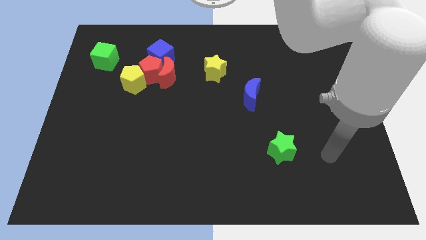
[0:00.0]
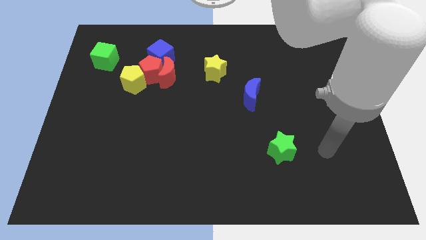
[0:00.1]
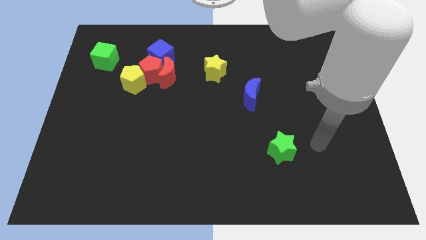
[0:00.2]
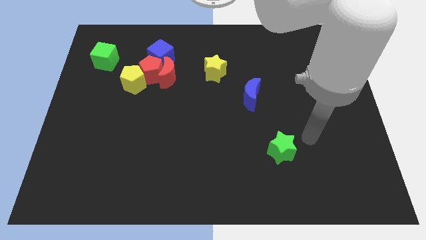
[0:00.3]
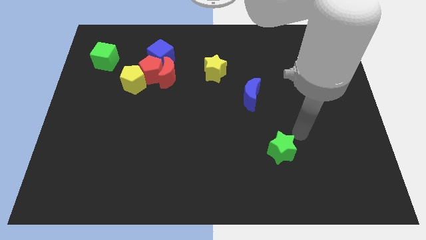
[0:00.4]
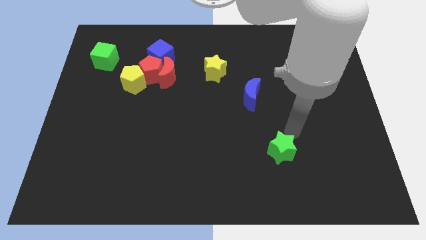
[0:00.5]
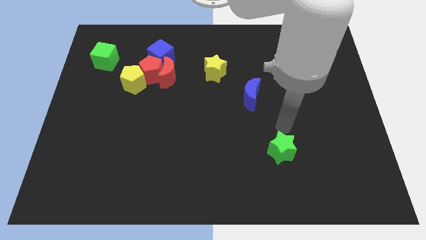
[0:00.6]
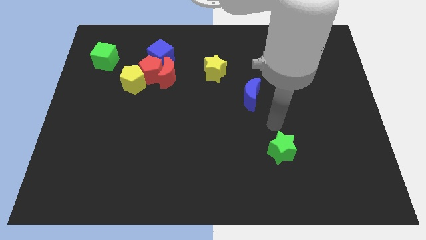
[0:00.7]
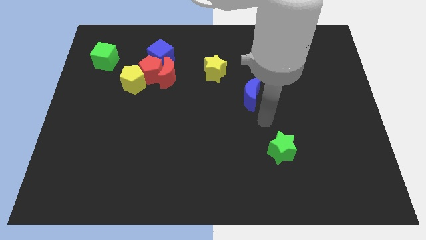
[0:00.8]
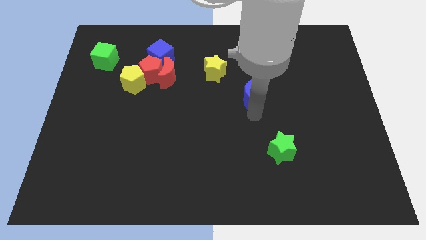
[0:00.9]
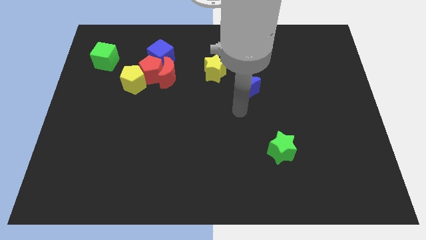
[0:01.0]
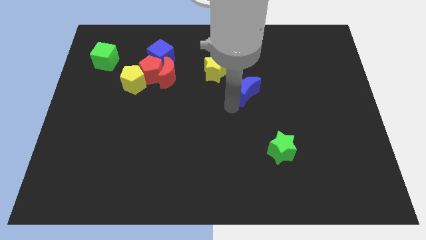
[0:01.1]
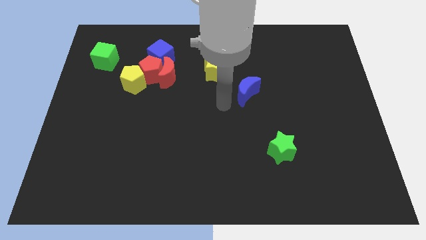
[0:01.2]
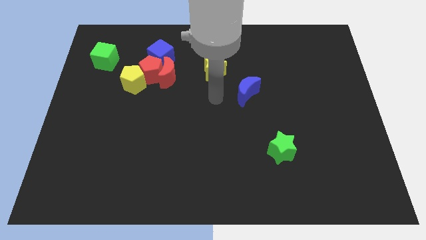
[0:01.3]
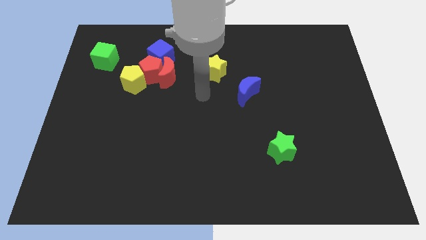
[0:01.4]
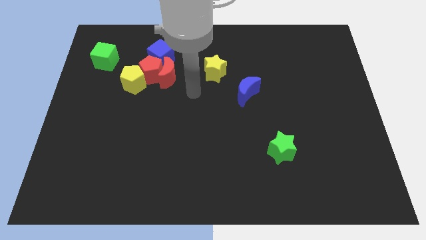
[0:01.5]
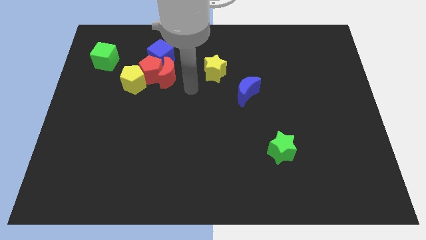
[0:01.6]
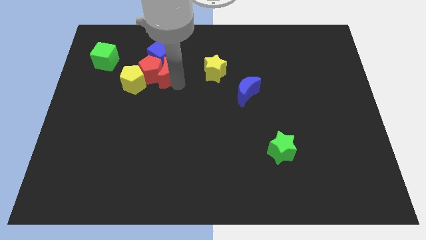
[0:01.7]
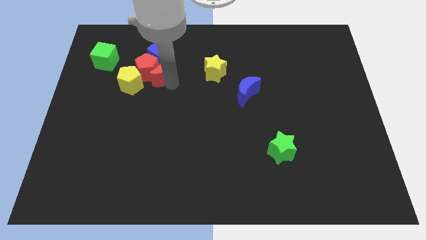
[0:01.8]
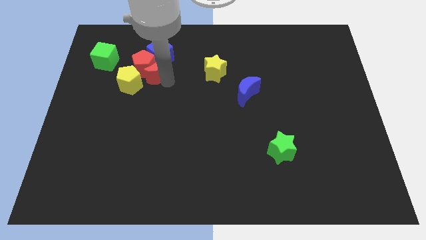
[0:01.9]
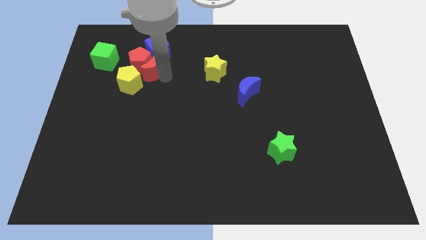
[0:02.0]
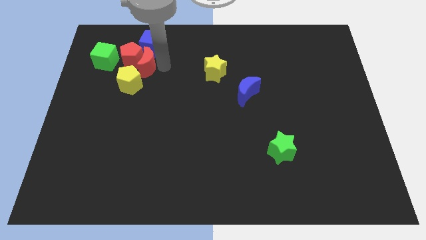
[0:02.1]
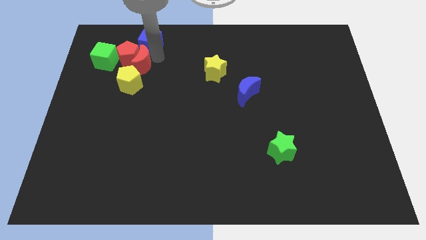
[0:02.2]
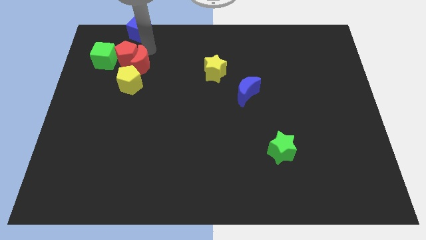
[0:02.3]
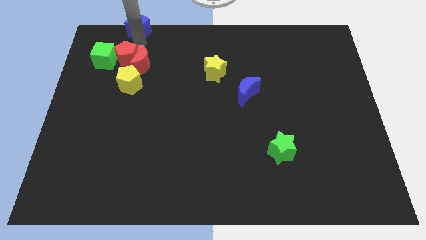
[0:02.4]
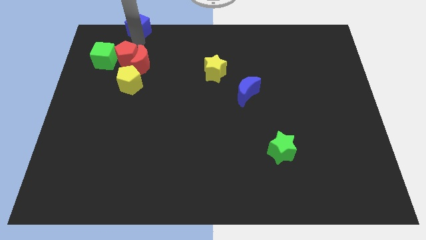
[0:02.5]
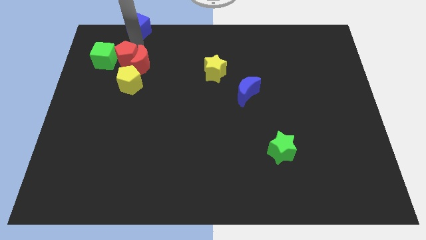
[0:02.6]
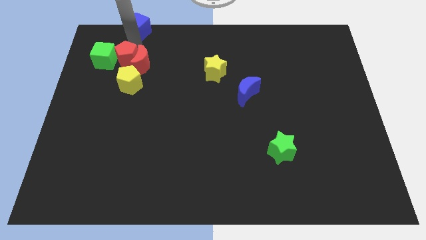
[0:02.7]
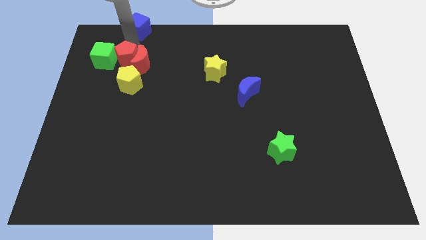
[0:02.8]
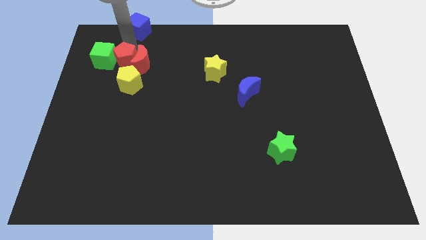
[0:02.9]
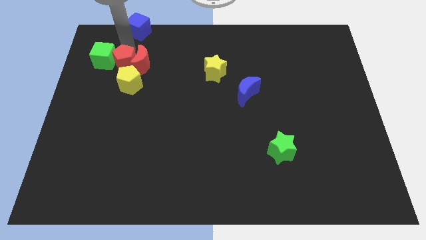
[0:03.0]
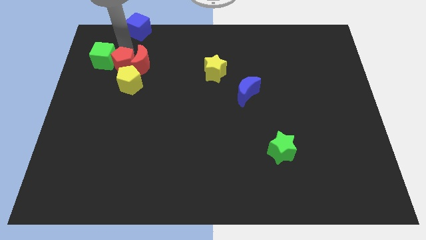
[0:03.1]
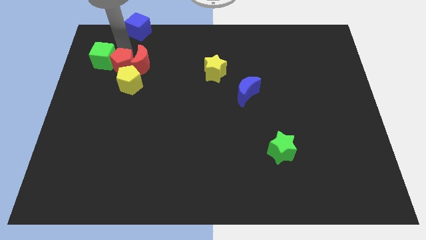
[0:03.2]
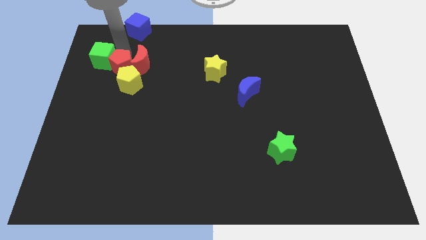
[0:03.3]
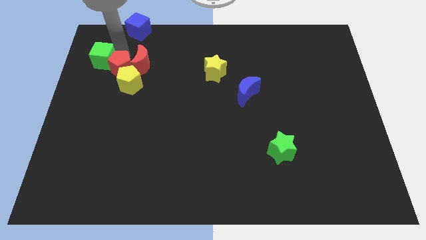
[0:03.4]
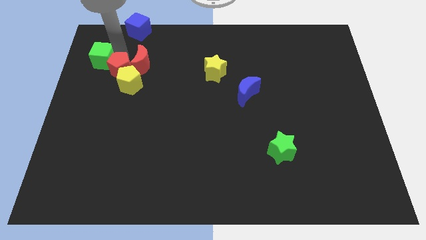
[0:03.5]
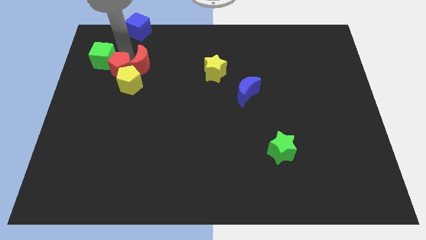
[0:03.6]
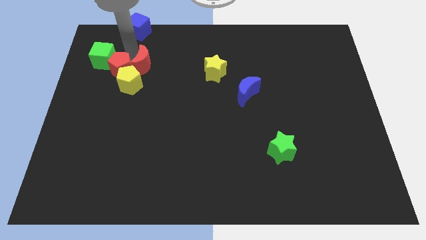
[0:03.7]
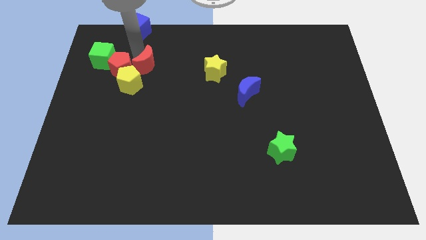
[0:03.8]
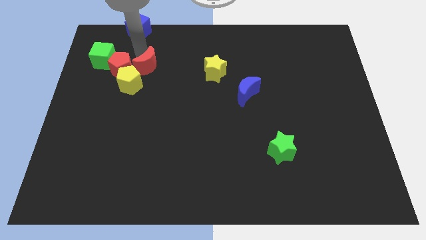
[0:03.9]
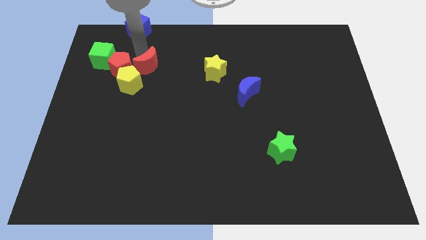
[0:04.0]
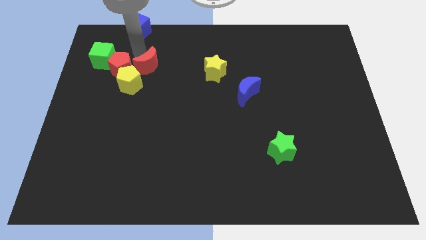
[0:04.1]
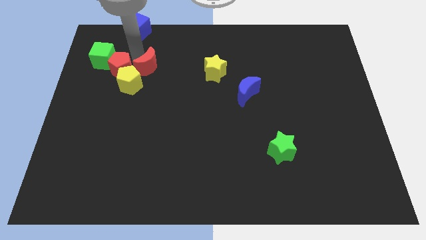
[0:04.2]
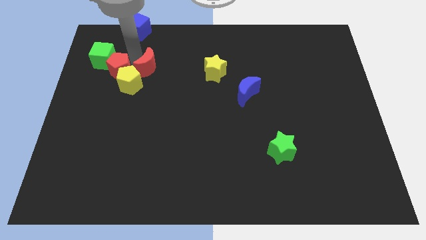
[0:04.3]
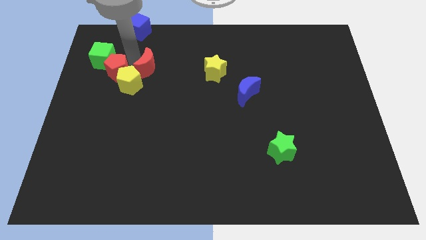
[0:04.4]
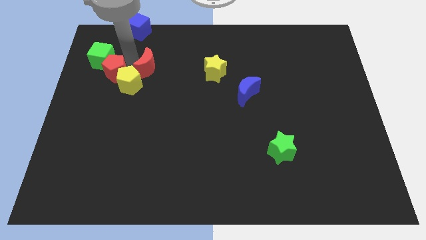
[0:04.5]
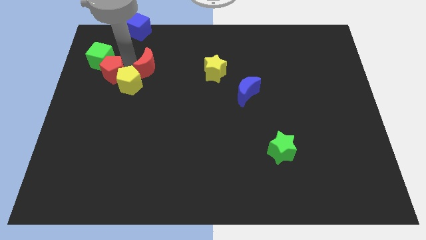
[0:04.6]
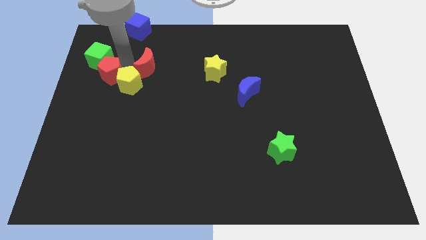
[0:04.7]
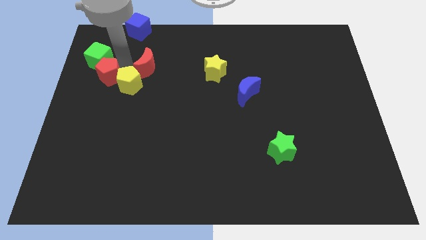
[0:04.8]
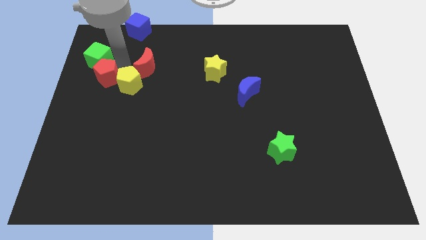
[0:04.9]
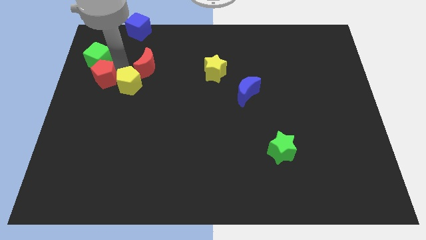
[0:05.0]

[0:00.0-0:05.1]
separate the red pentagon from the group

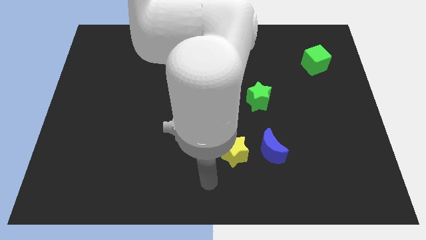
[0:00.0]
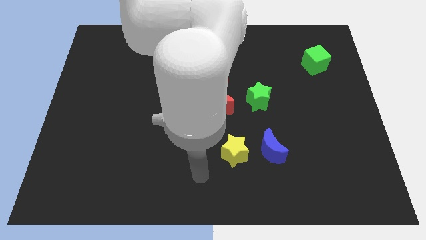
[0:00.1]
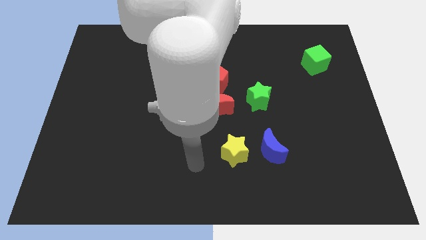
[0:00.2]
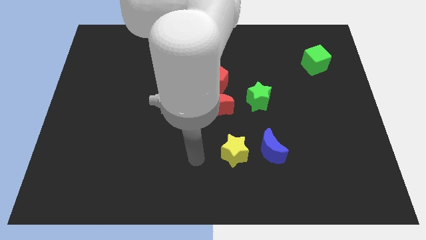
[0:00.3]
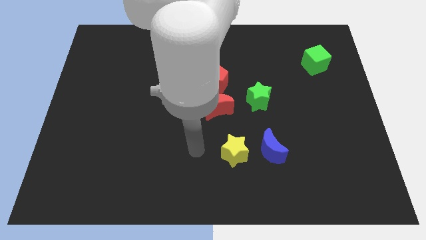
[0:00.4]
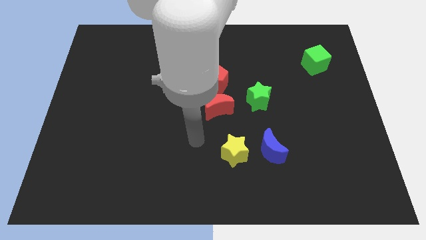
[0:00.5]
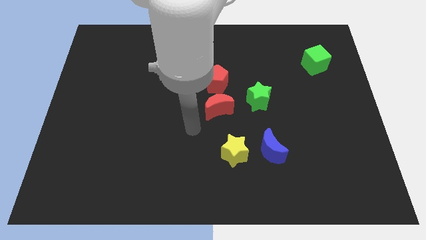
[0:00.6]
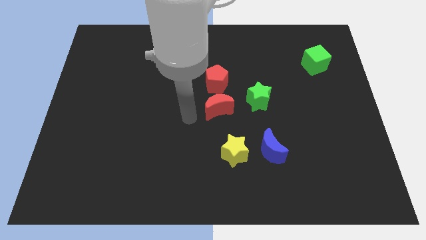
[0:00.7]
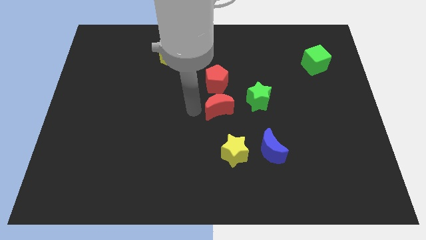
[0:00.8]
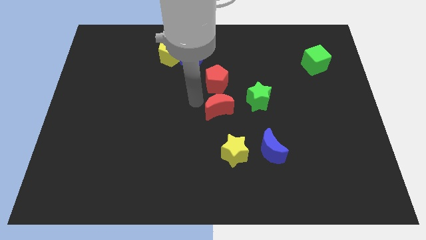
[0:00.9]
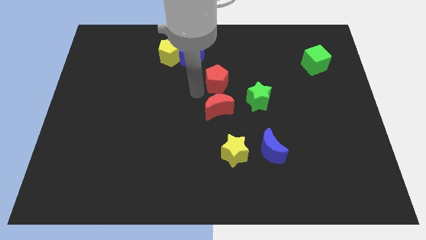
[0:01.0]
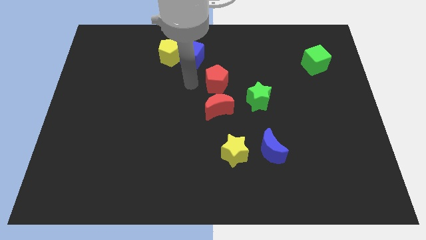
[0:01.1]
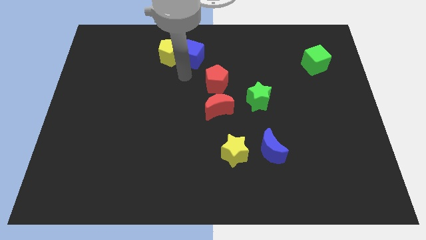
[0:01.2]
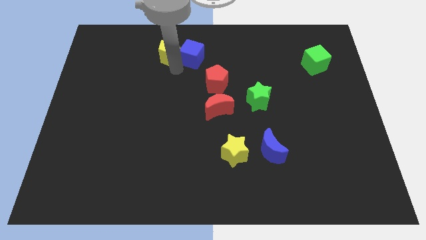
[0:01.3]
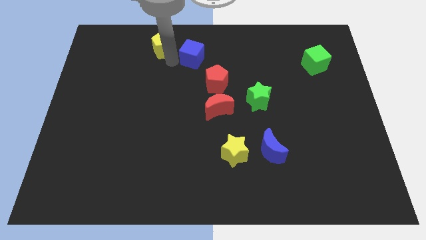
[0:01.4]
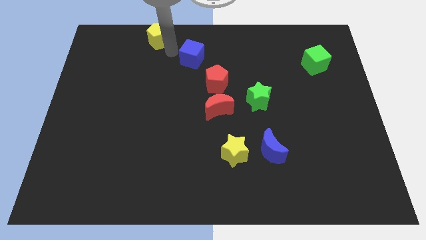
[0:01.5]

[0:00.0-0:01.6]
separate the blue cube from the yellow pentagon

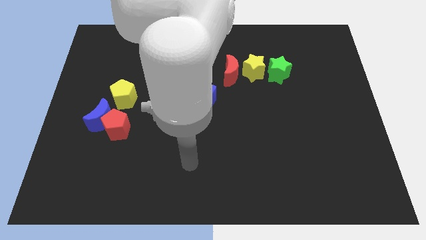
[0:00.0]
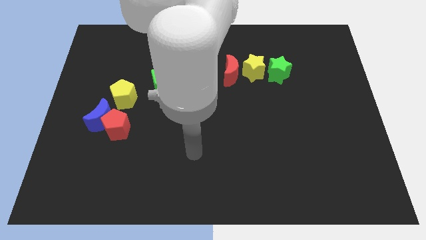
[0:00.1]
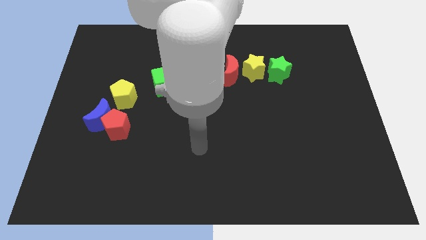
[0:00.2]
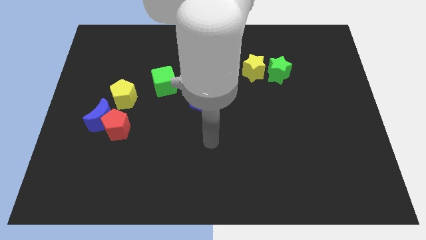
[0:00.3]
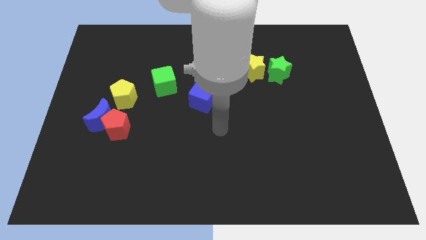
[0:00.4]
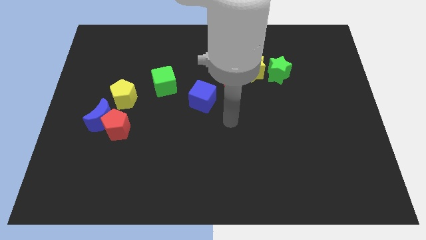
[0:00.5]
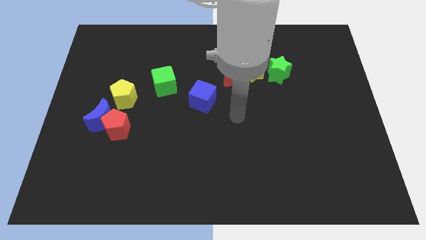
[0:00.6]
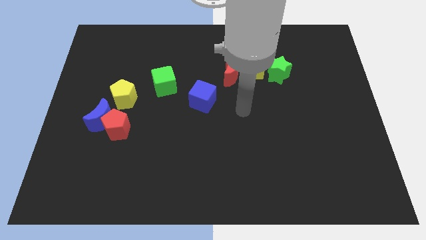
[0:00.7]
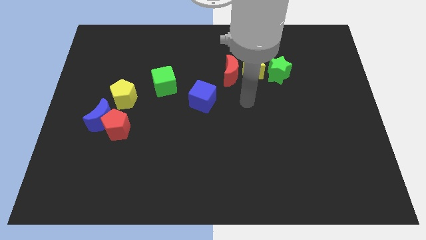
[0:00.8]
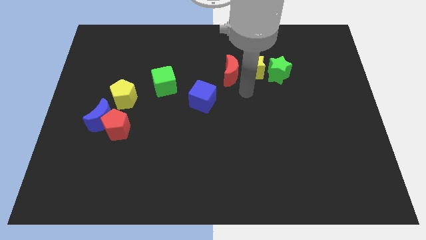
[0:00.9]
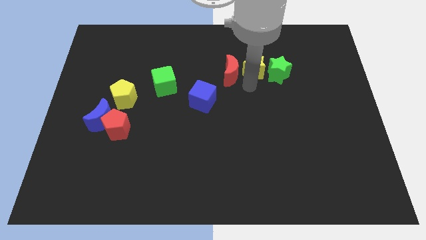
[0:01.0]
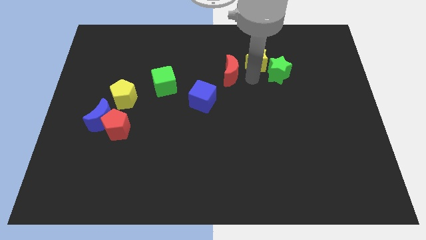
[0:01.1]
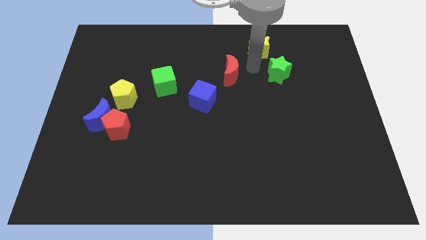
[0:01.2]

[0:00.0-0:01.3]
separate the red moon from the yellow star

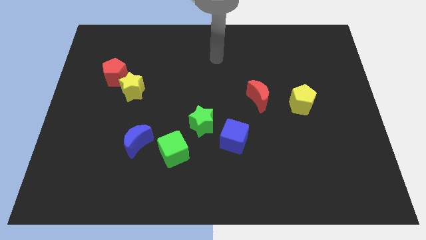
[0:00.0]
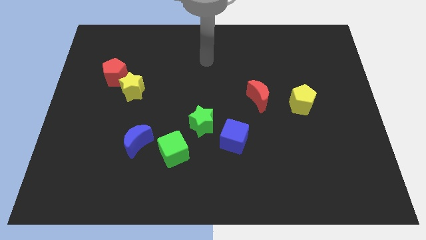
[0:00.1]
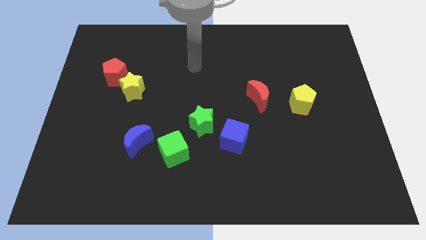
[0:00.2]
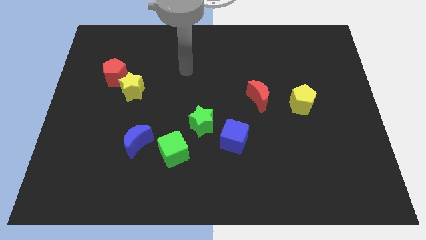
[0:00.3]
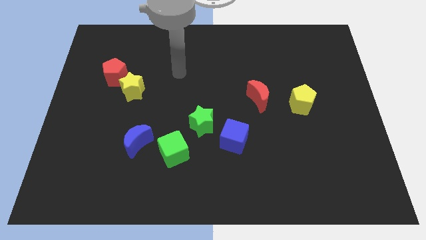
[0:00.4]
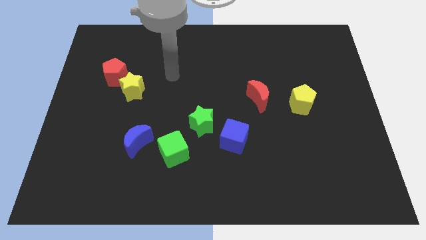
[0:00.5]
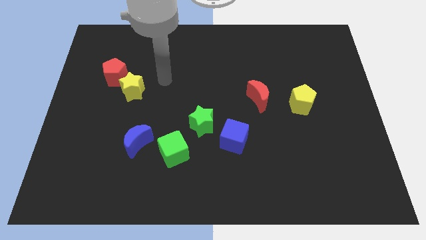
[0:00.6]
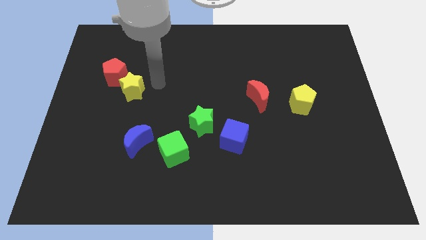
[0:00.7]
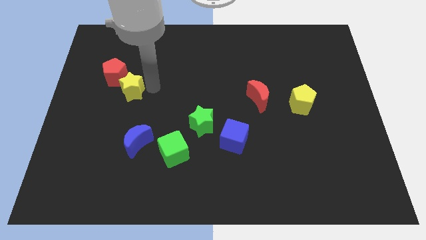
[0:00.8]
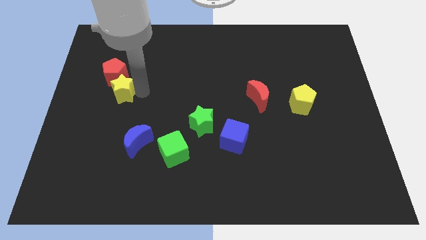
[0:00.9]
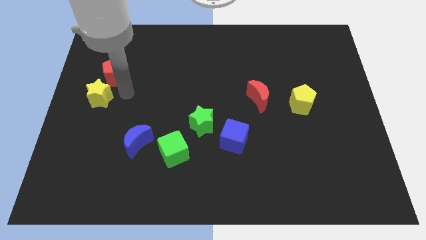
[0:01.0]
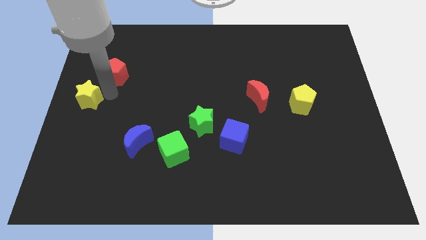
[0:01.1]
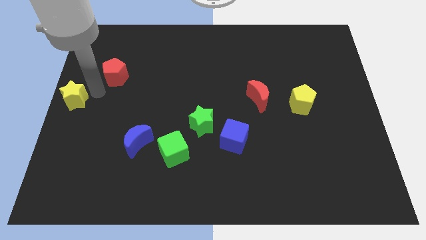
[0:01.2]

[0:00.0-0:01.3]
move the red pentagon away from the yellow star

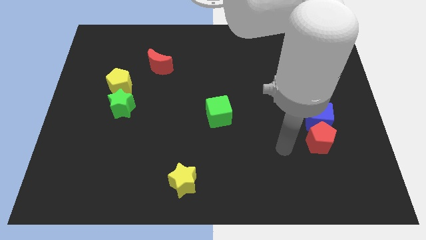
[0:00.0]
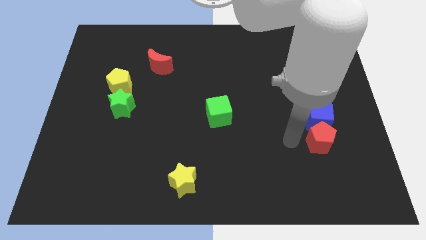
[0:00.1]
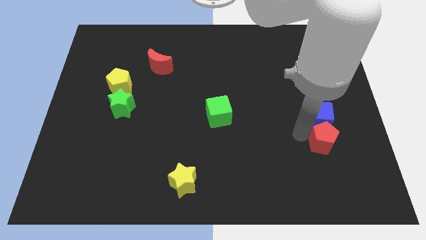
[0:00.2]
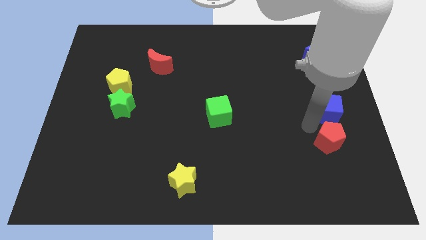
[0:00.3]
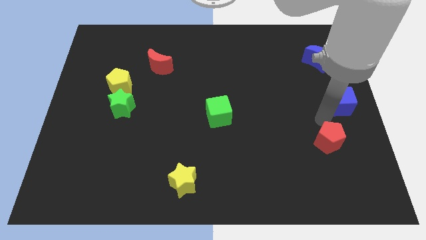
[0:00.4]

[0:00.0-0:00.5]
move the red pentagon away from the blue cube
